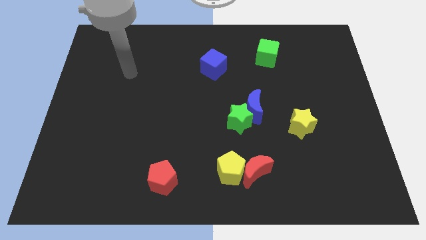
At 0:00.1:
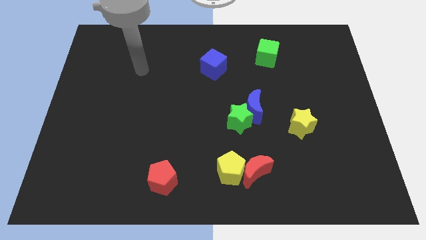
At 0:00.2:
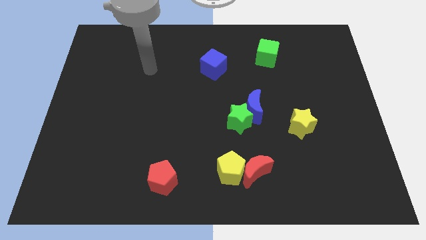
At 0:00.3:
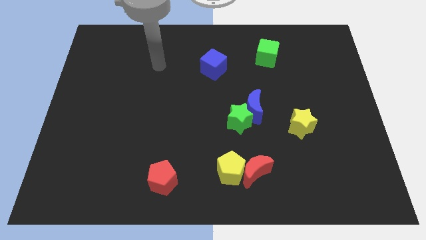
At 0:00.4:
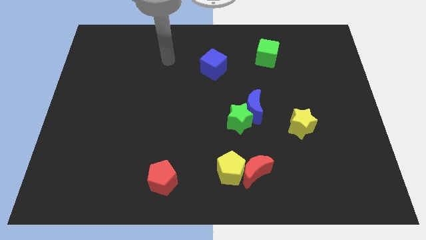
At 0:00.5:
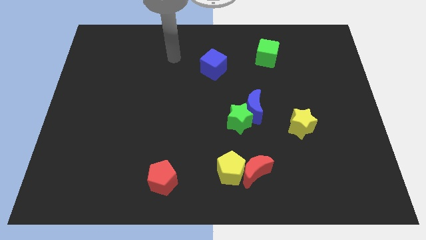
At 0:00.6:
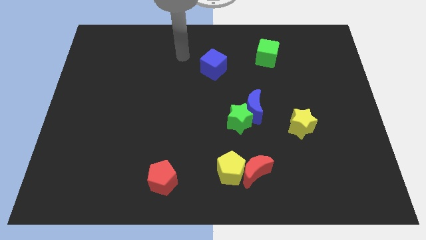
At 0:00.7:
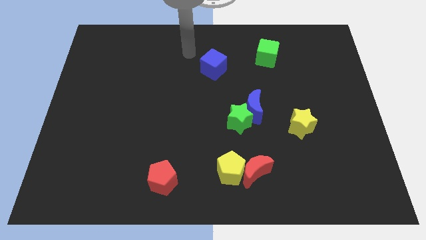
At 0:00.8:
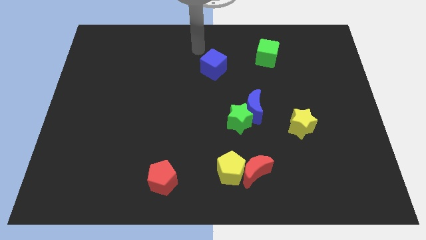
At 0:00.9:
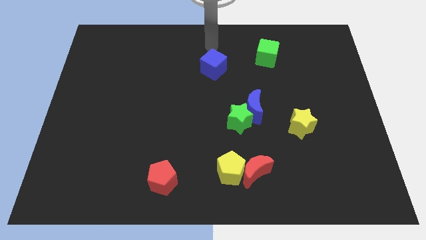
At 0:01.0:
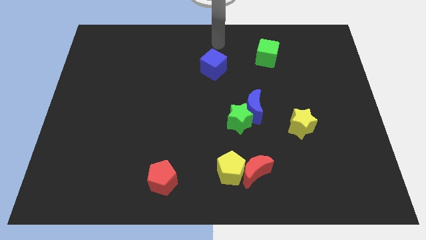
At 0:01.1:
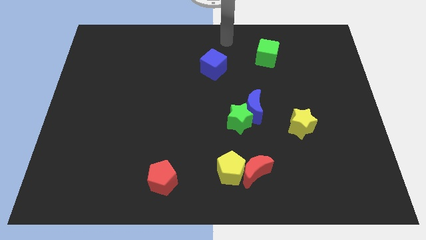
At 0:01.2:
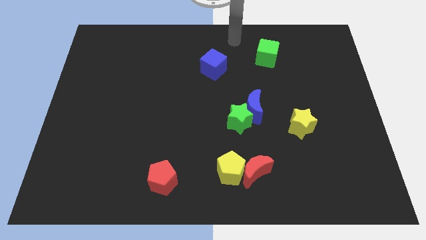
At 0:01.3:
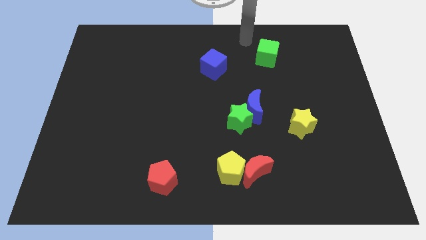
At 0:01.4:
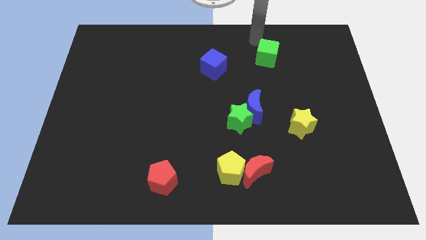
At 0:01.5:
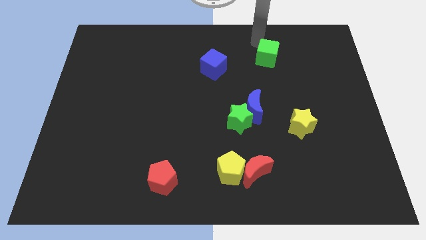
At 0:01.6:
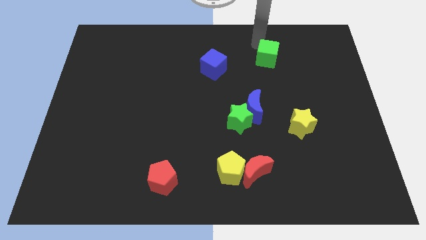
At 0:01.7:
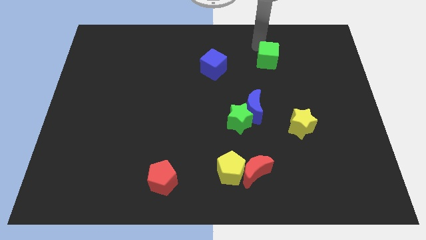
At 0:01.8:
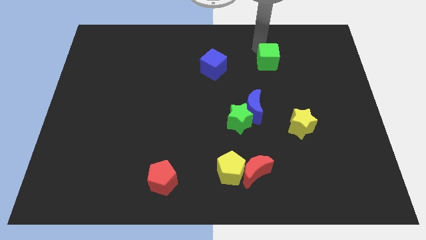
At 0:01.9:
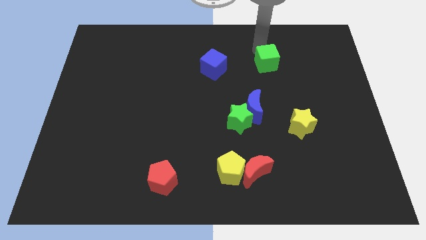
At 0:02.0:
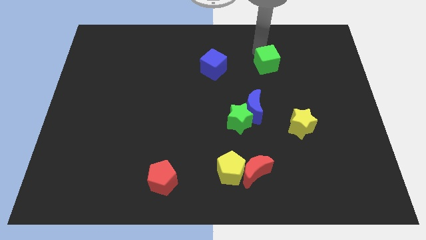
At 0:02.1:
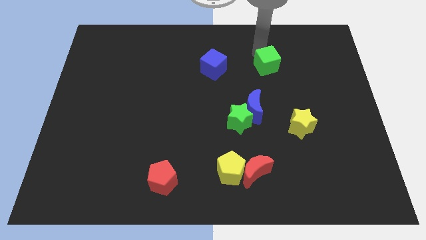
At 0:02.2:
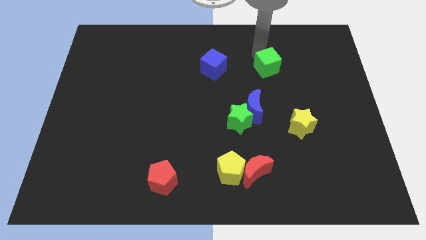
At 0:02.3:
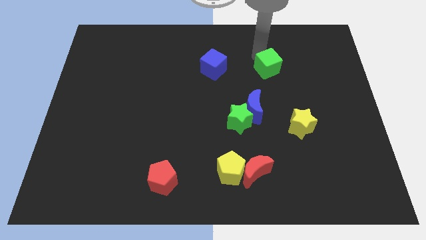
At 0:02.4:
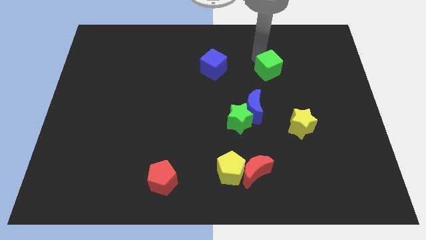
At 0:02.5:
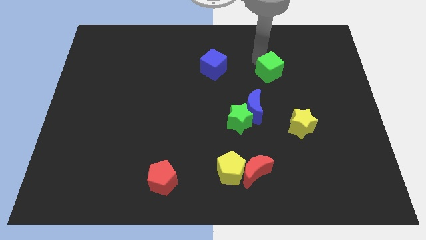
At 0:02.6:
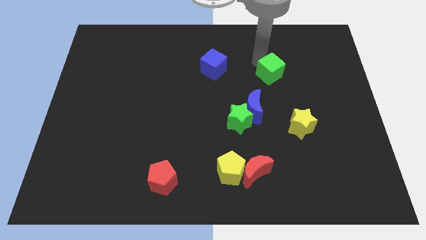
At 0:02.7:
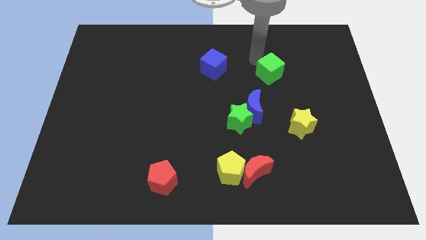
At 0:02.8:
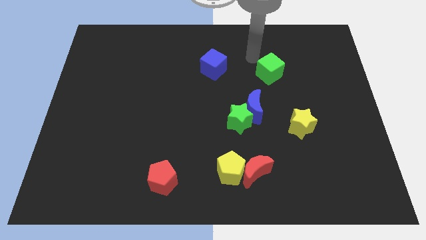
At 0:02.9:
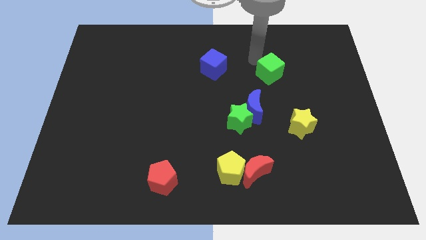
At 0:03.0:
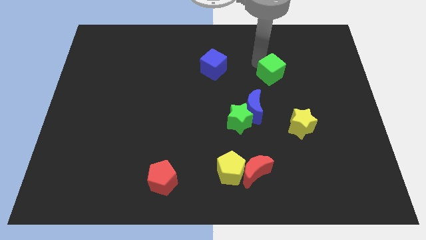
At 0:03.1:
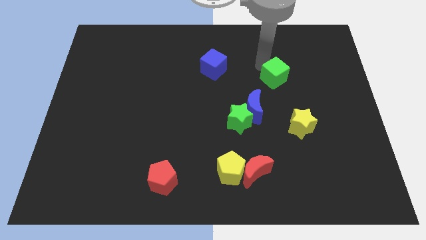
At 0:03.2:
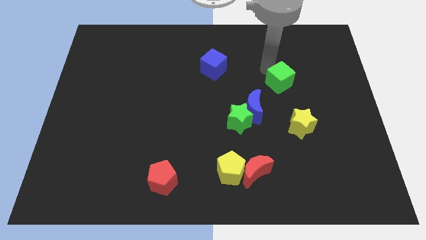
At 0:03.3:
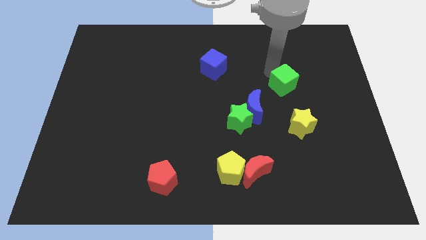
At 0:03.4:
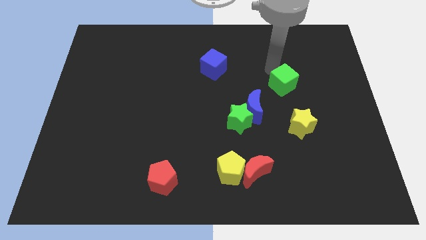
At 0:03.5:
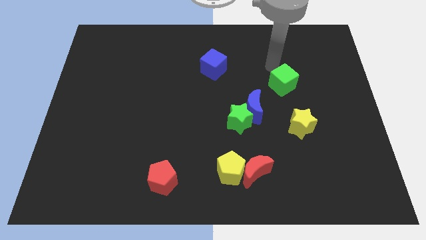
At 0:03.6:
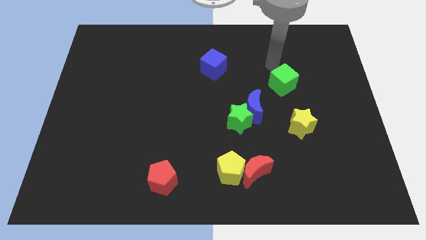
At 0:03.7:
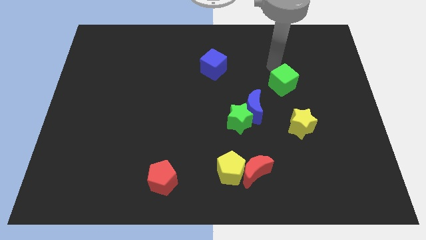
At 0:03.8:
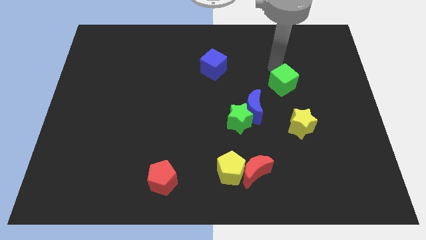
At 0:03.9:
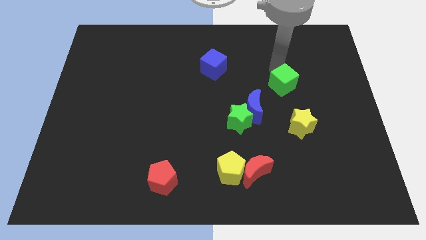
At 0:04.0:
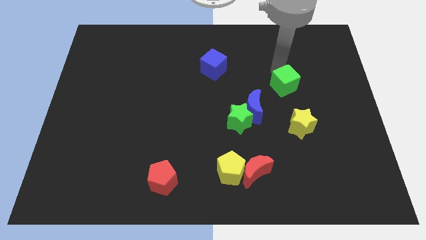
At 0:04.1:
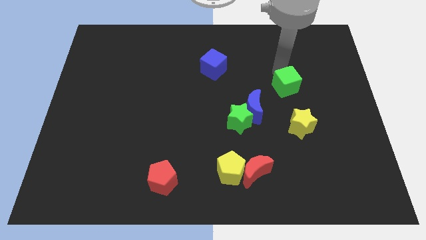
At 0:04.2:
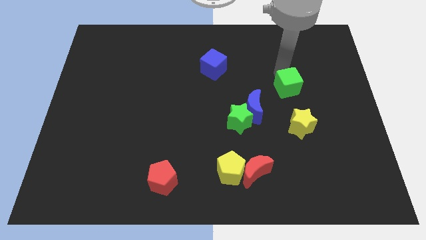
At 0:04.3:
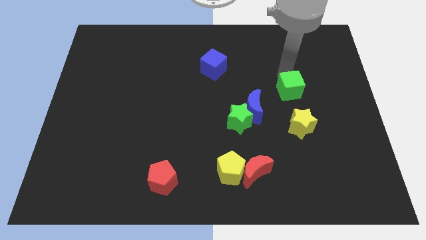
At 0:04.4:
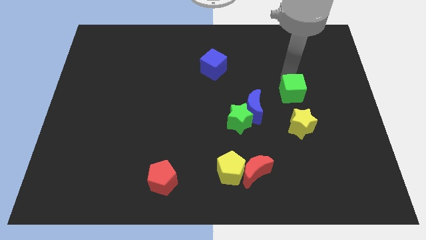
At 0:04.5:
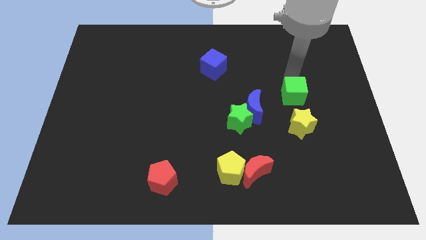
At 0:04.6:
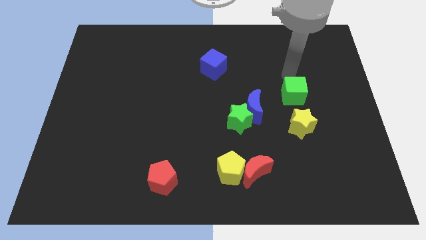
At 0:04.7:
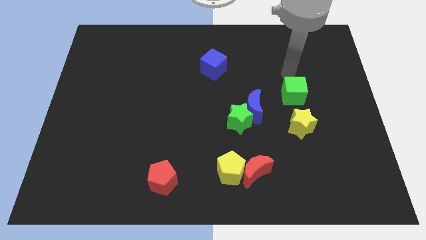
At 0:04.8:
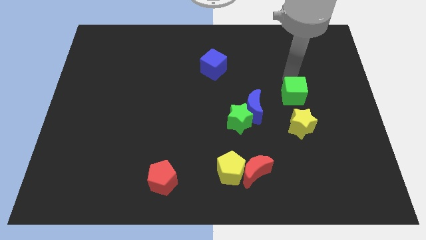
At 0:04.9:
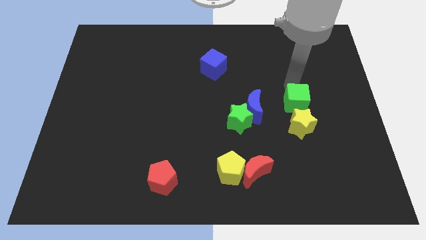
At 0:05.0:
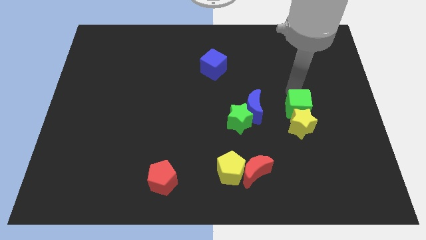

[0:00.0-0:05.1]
move the green cube towards the yellow star

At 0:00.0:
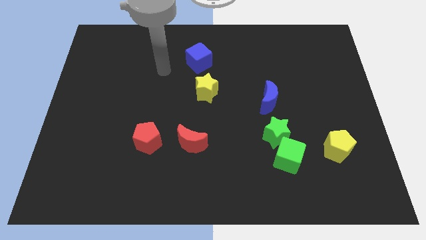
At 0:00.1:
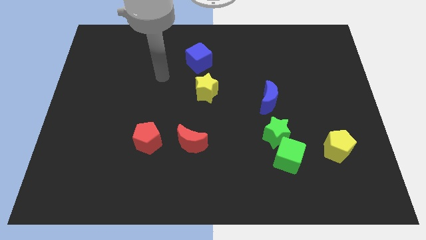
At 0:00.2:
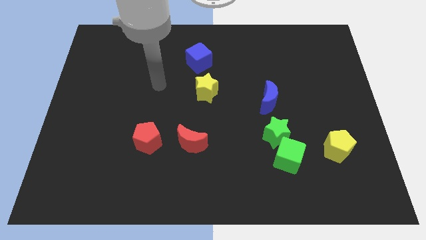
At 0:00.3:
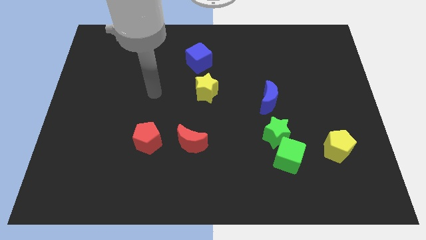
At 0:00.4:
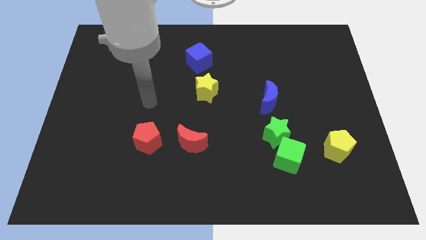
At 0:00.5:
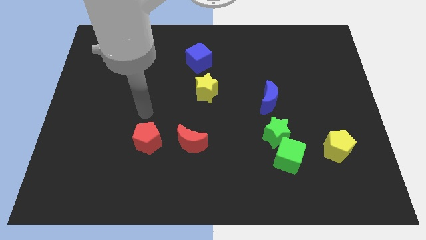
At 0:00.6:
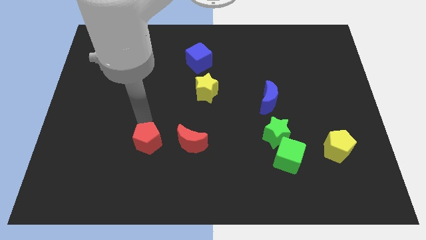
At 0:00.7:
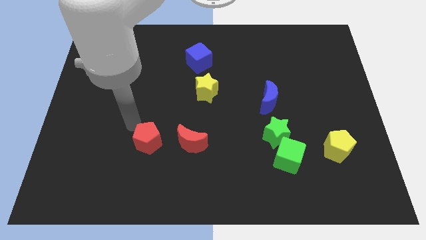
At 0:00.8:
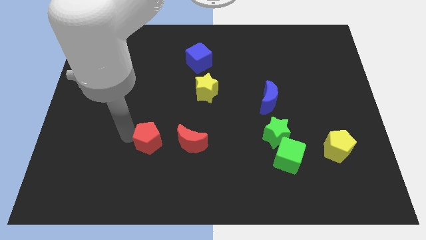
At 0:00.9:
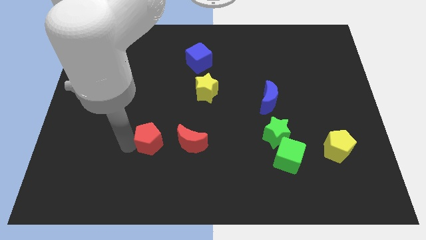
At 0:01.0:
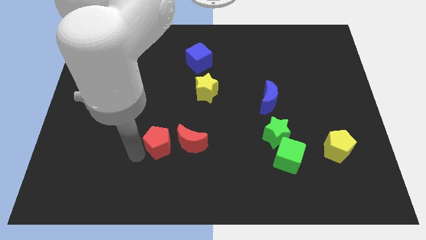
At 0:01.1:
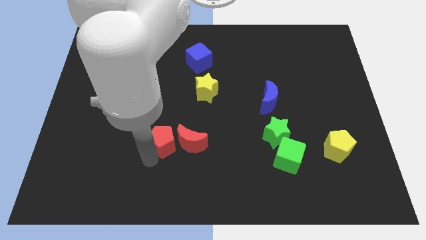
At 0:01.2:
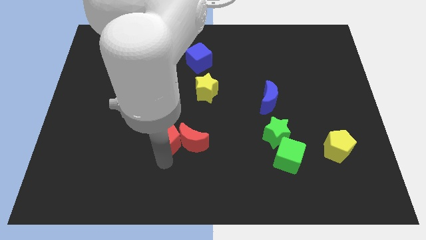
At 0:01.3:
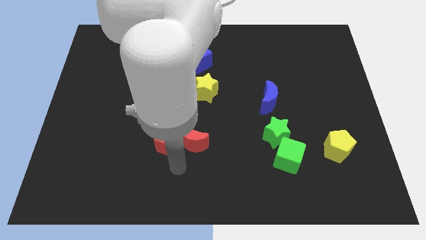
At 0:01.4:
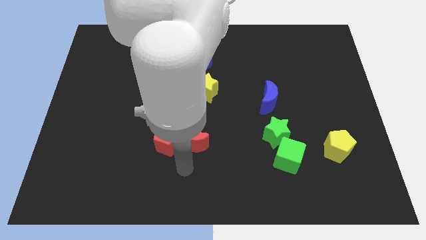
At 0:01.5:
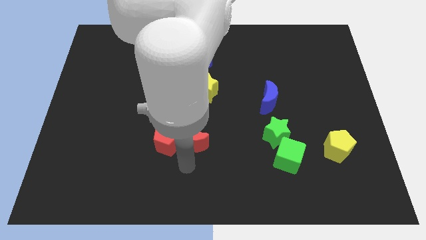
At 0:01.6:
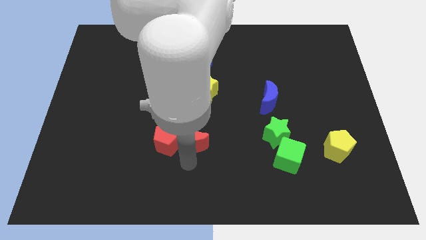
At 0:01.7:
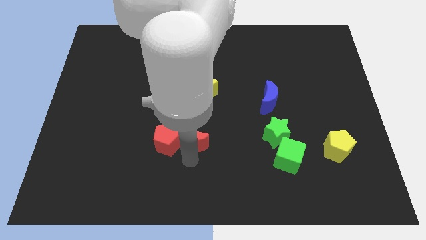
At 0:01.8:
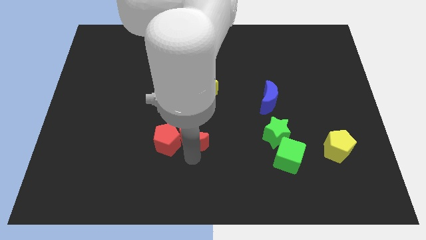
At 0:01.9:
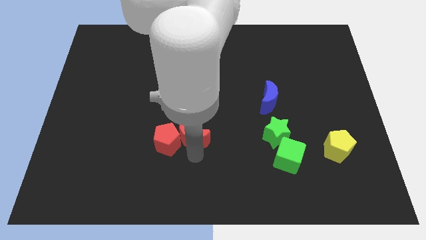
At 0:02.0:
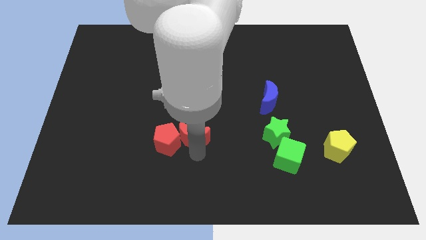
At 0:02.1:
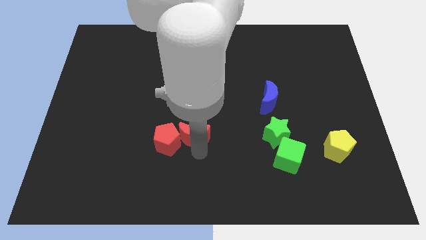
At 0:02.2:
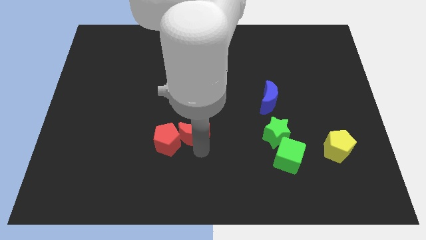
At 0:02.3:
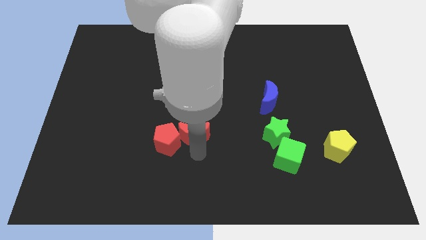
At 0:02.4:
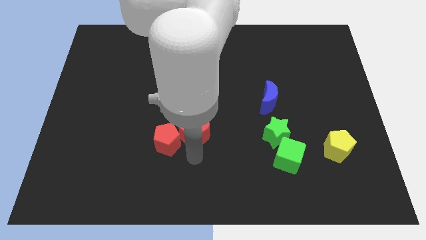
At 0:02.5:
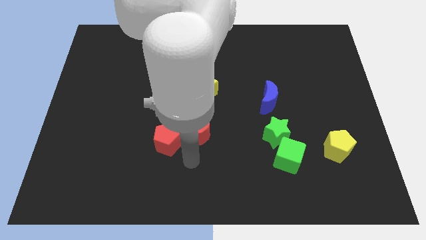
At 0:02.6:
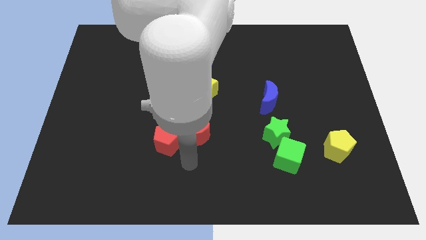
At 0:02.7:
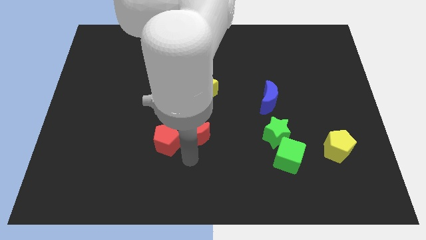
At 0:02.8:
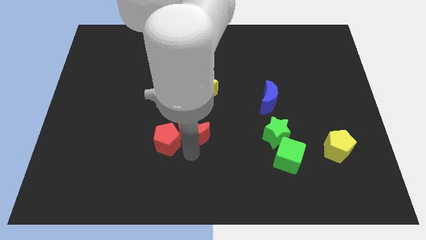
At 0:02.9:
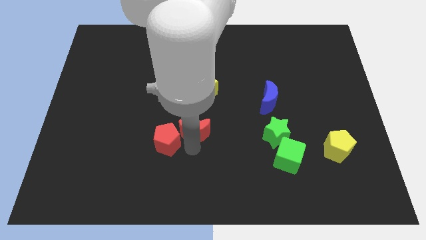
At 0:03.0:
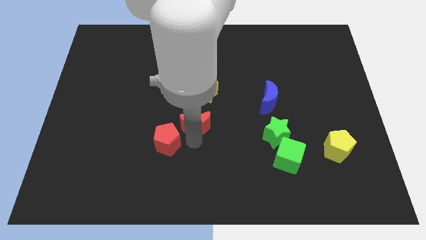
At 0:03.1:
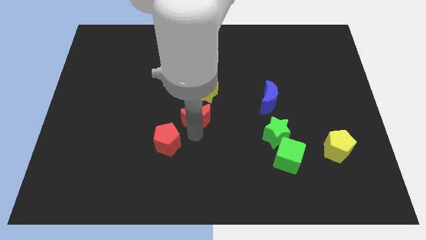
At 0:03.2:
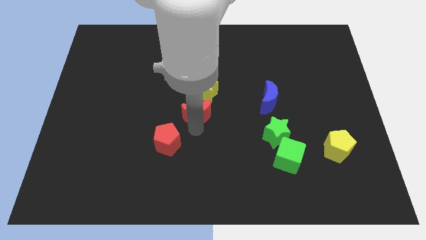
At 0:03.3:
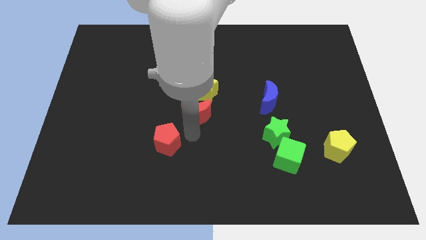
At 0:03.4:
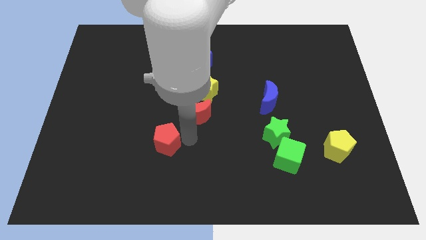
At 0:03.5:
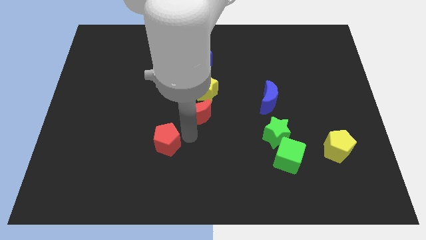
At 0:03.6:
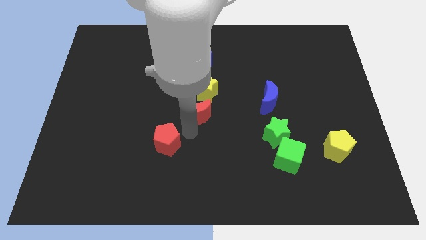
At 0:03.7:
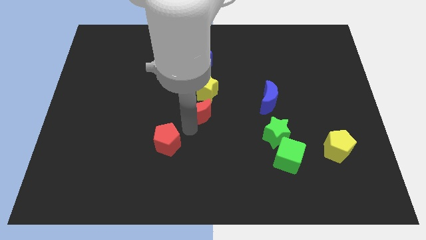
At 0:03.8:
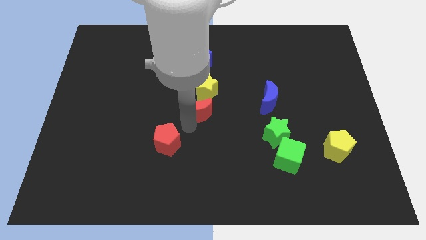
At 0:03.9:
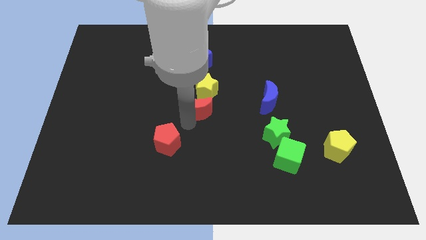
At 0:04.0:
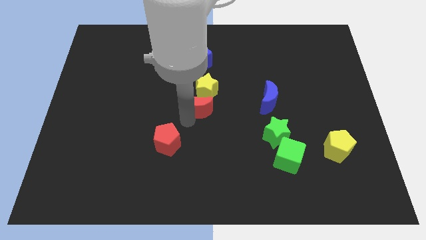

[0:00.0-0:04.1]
put the red moon close to the yellow star
